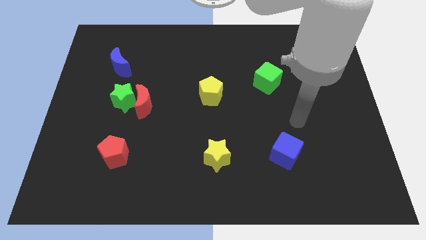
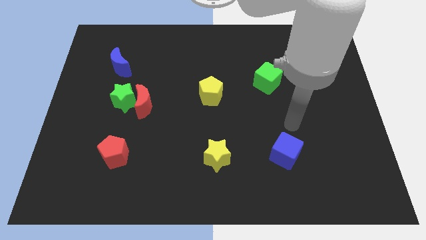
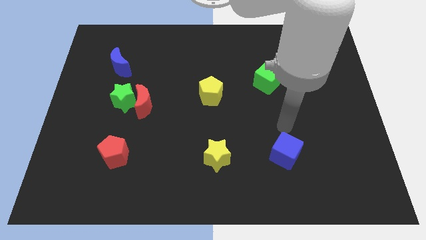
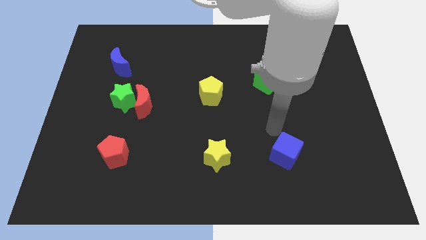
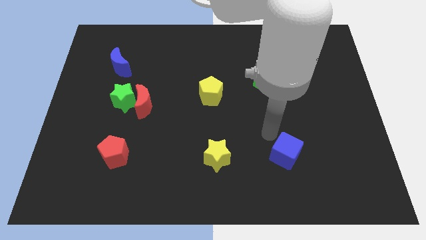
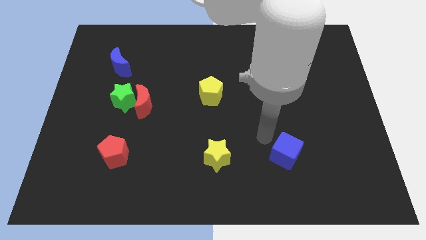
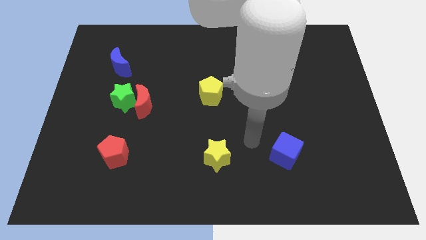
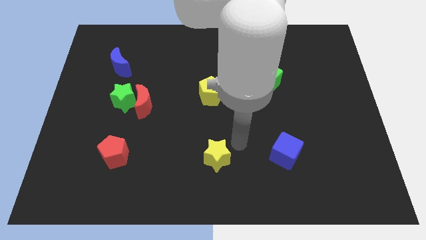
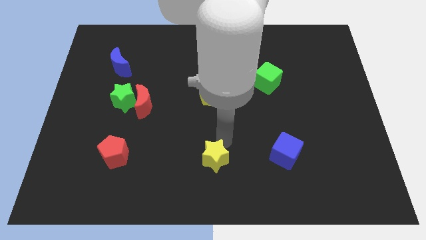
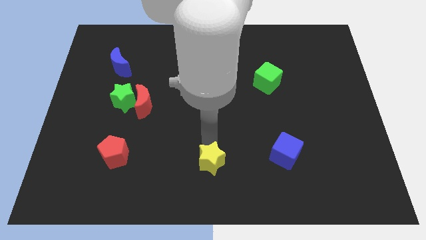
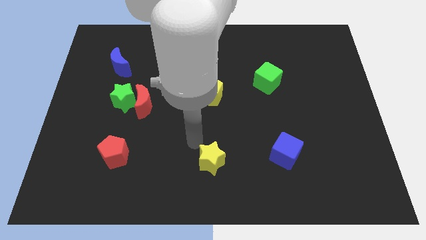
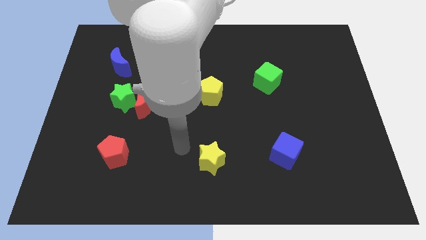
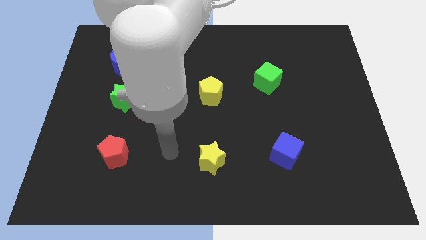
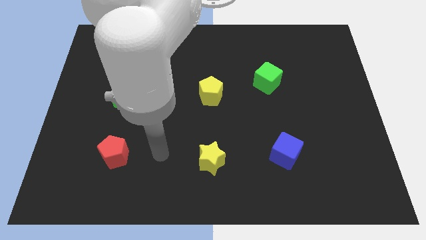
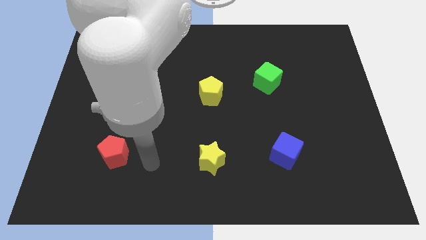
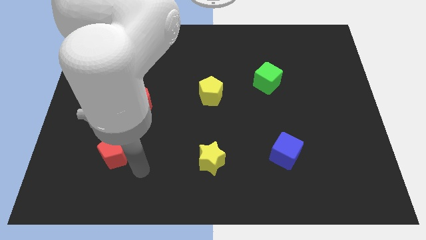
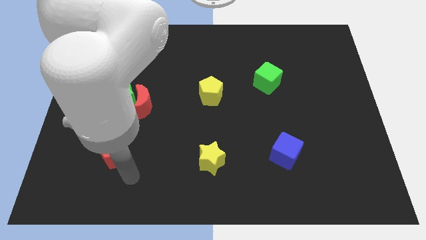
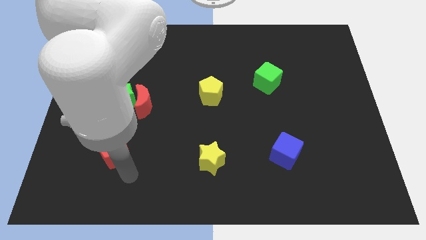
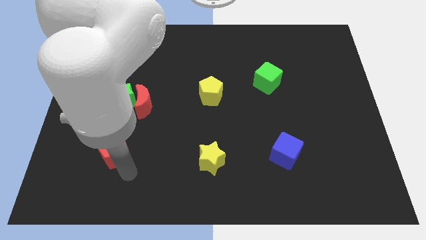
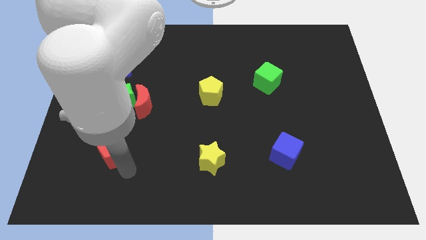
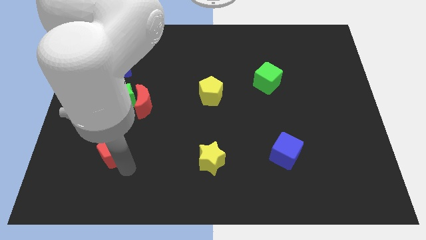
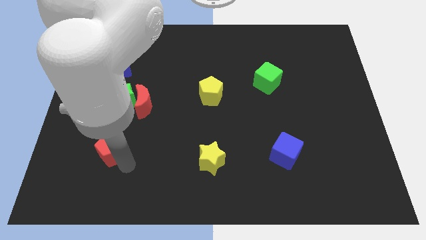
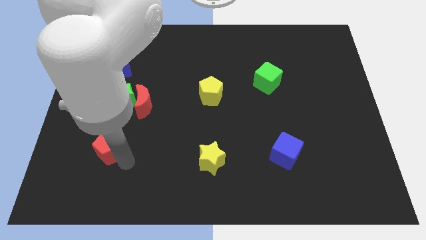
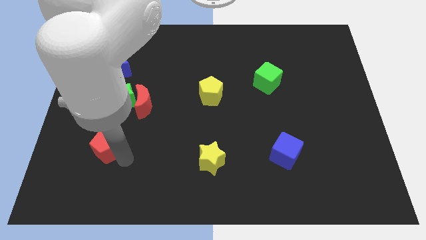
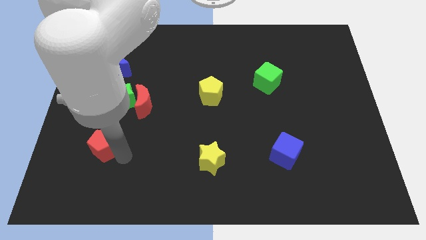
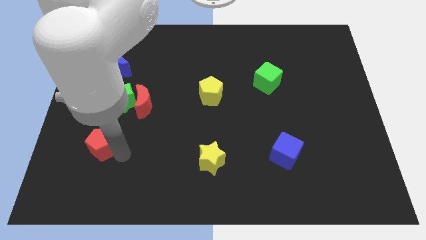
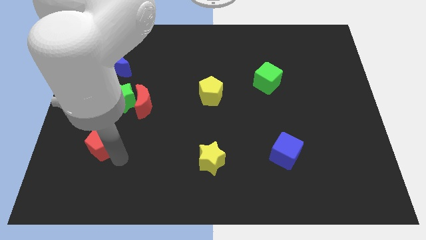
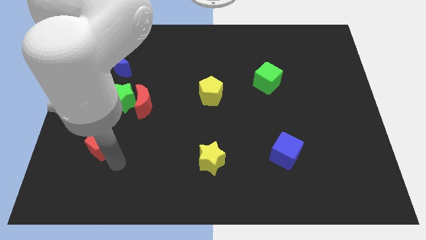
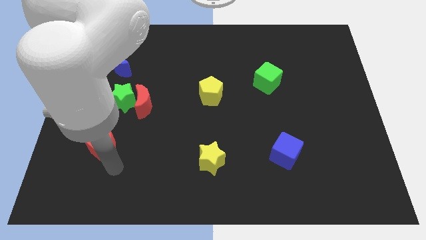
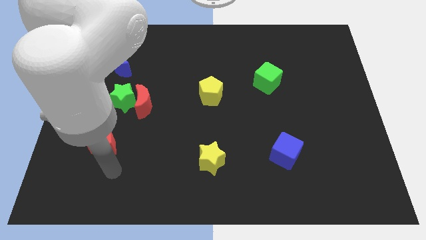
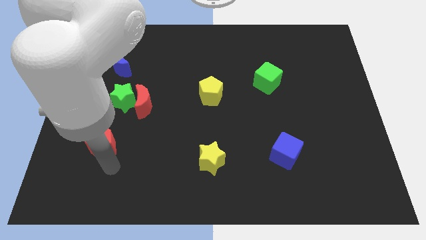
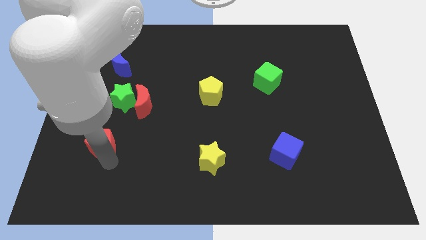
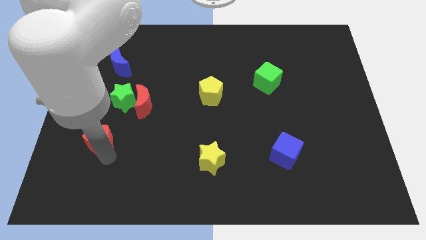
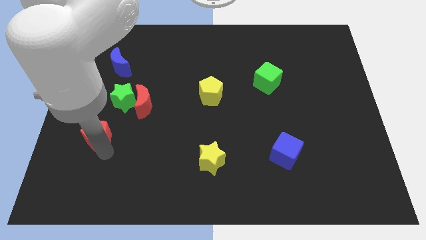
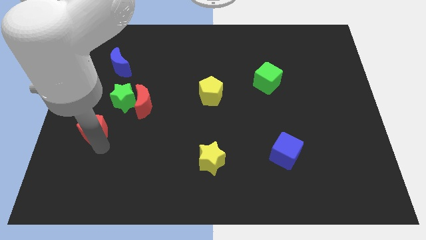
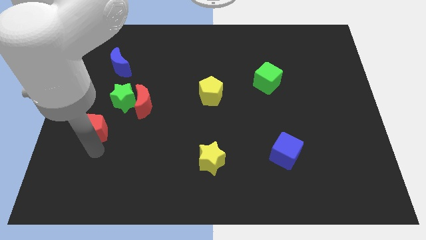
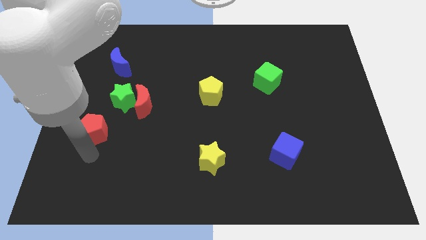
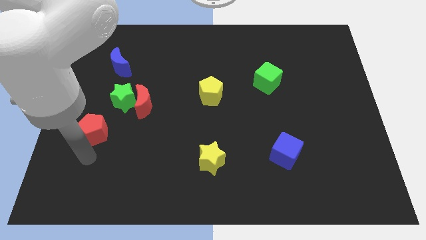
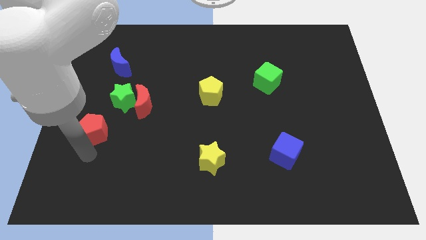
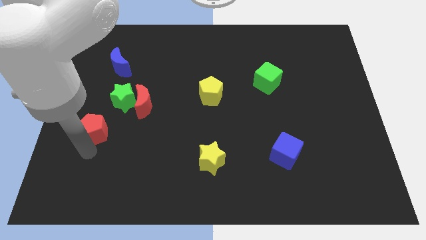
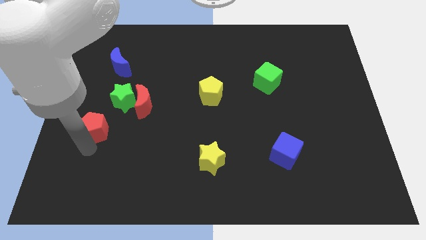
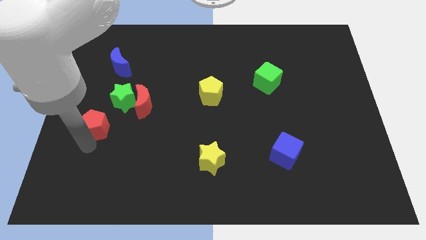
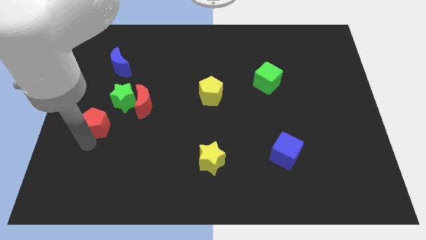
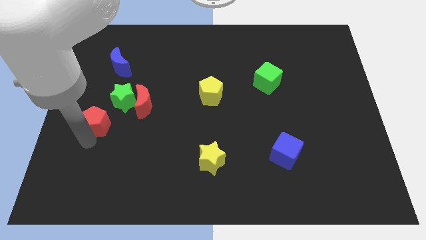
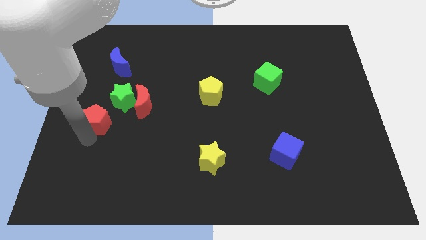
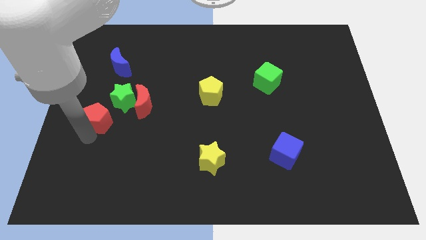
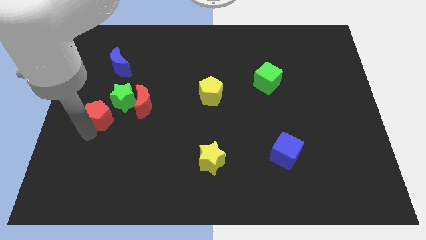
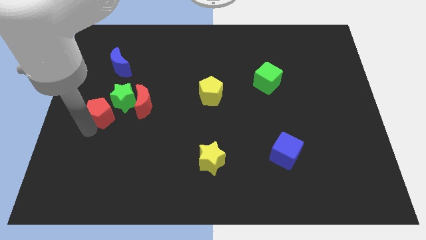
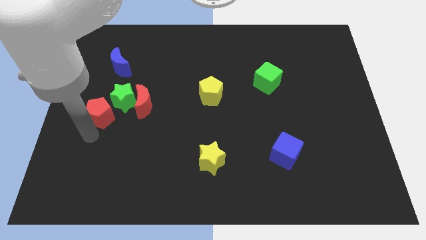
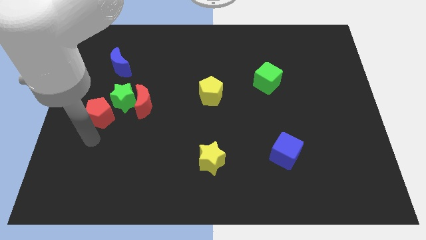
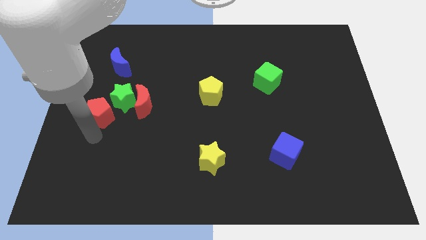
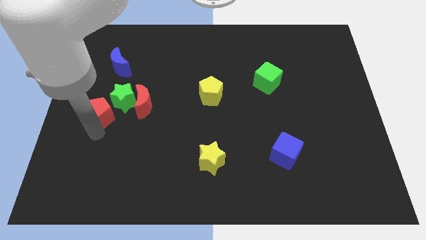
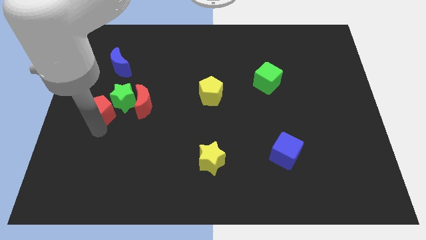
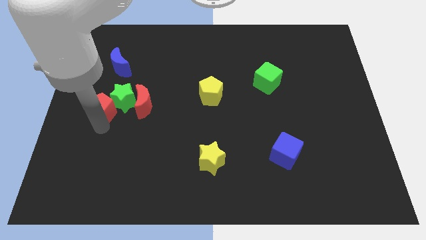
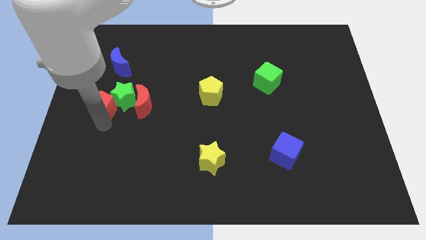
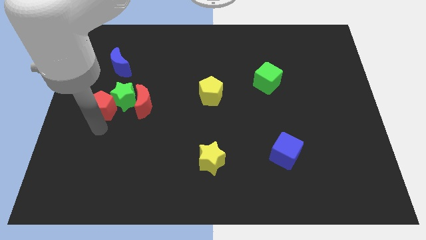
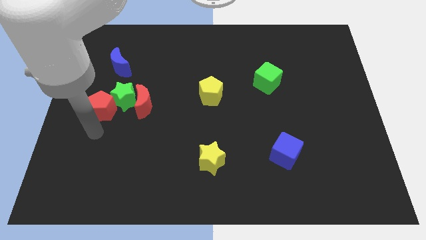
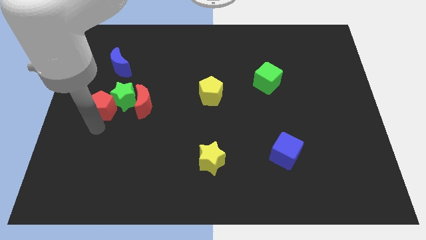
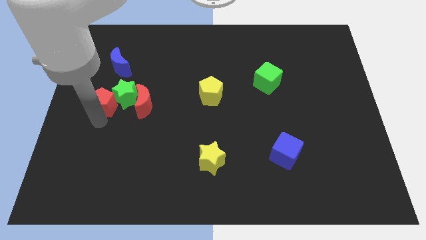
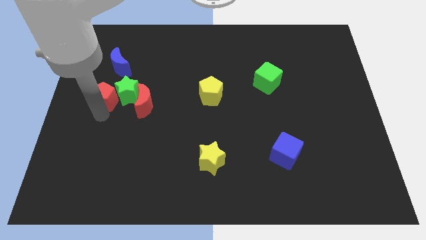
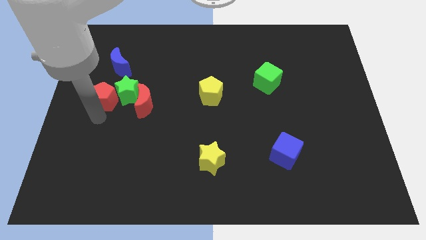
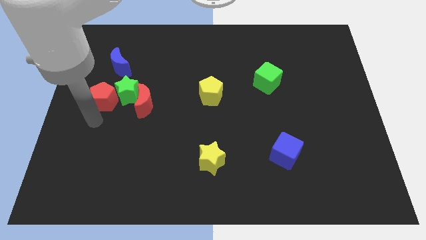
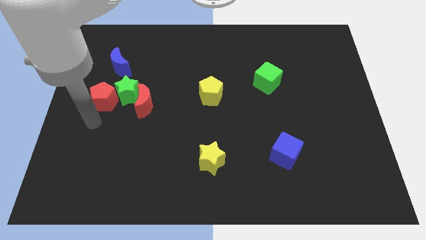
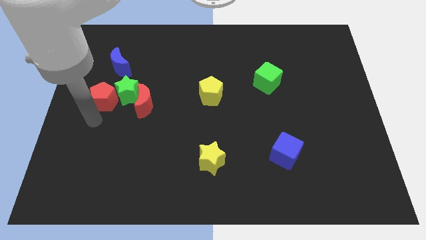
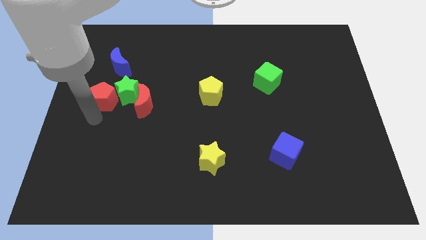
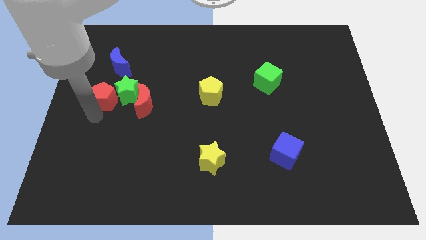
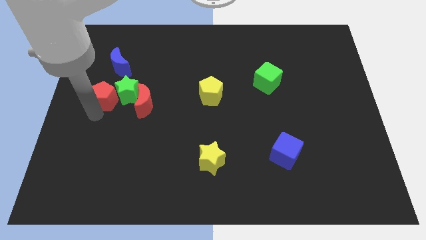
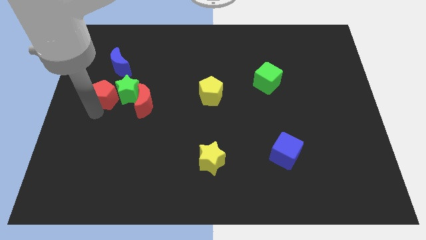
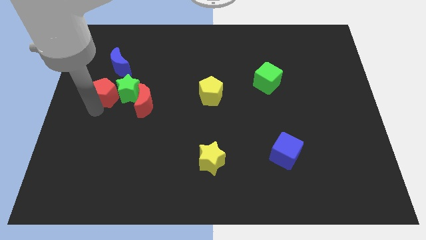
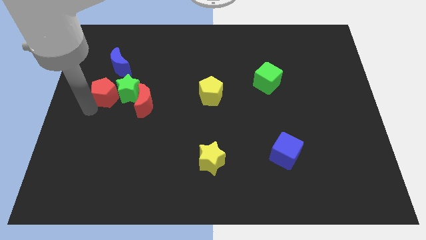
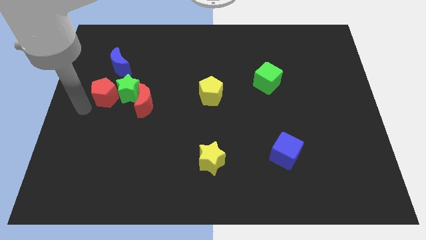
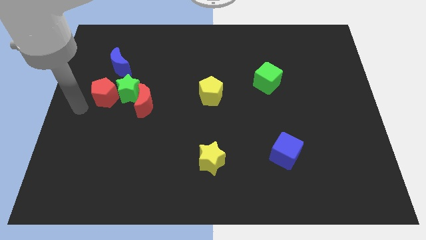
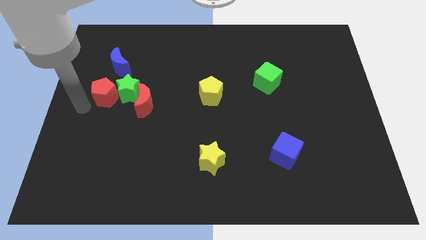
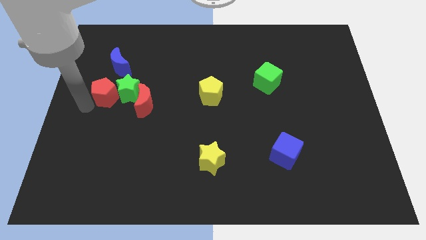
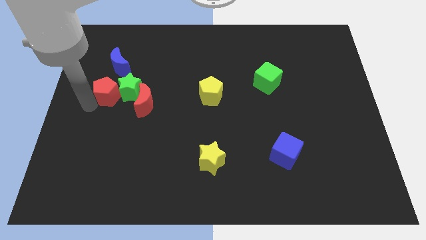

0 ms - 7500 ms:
push the red pentagon diagonally up and to the left of the red moon
